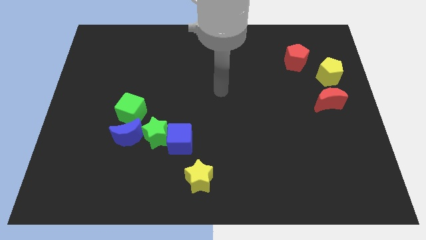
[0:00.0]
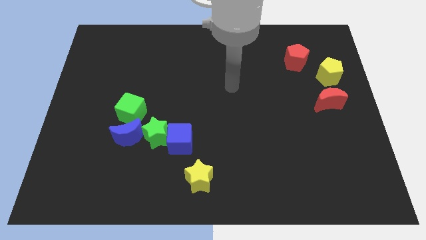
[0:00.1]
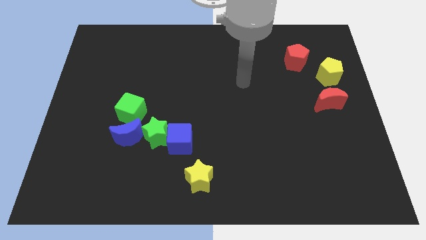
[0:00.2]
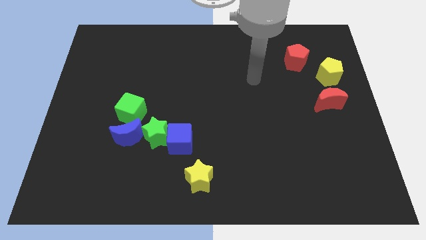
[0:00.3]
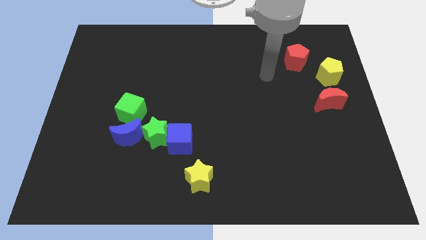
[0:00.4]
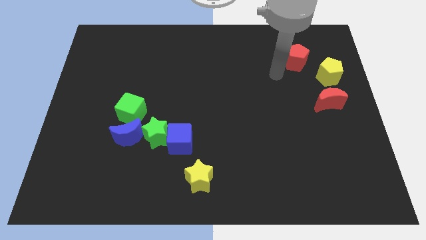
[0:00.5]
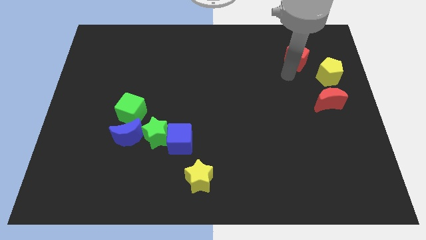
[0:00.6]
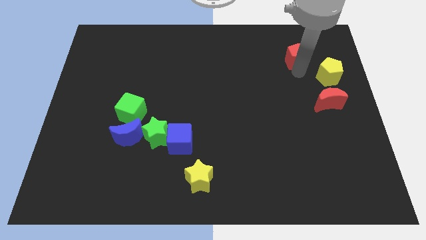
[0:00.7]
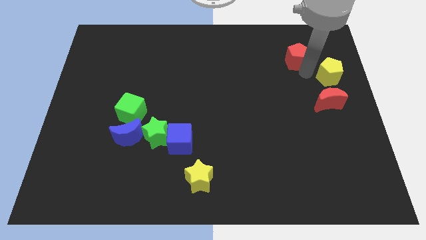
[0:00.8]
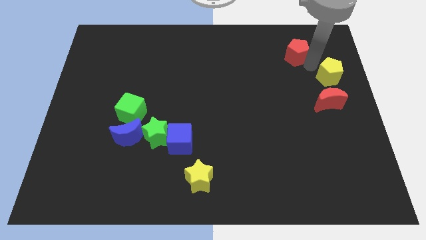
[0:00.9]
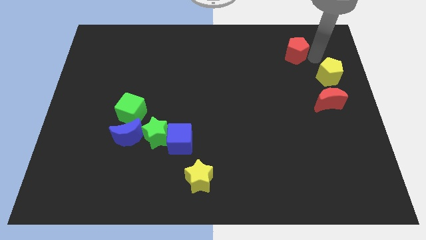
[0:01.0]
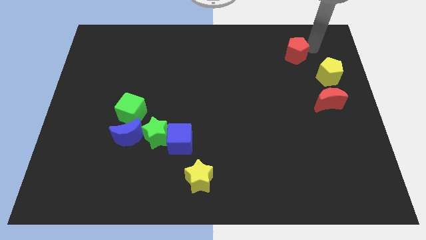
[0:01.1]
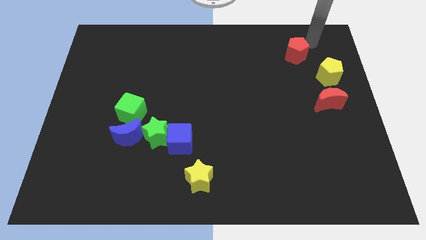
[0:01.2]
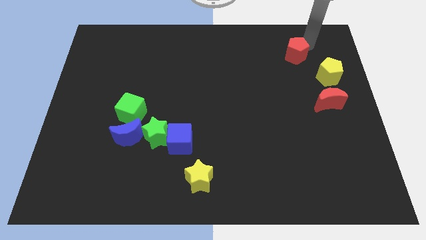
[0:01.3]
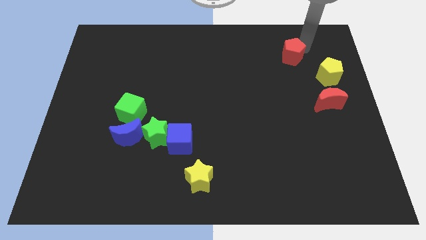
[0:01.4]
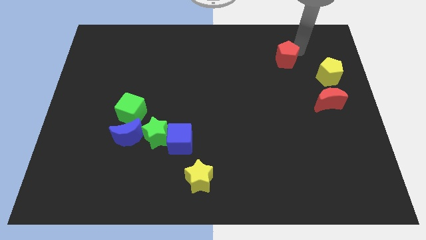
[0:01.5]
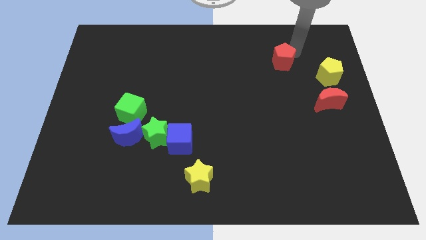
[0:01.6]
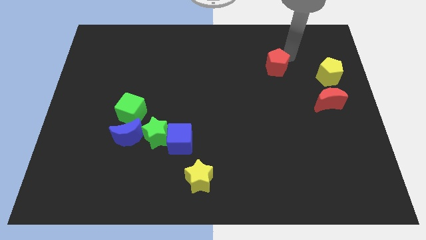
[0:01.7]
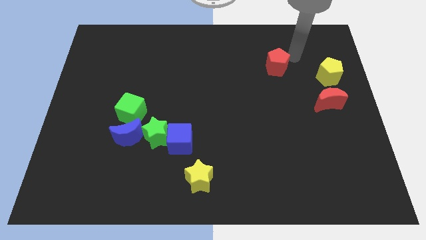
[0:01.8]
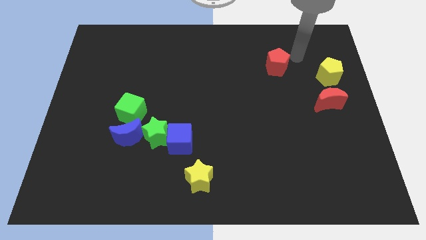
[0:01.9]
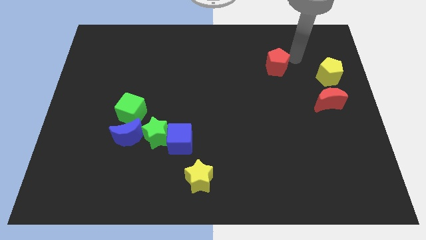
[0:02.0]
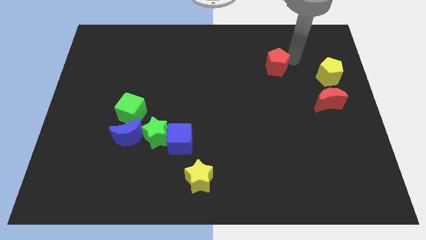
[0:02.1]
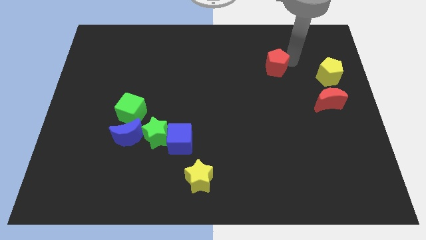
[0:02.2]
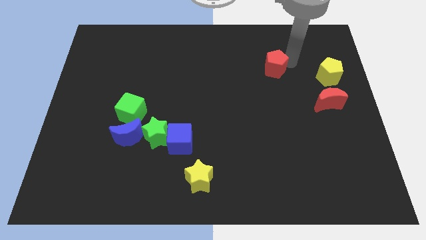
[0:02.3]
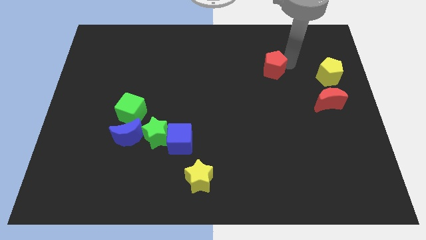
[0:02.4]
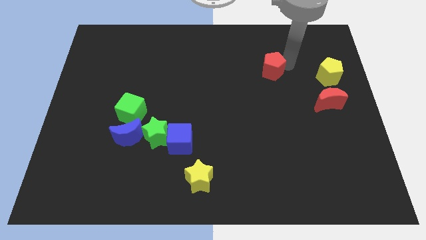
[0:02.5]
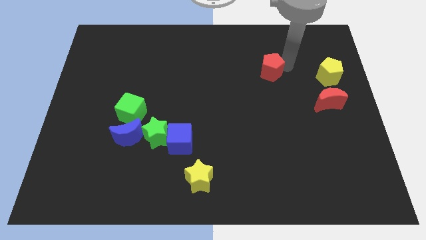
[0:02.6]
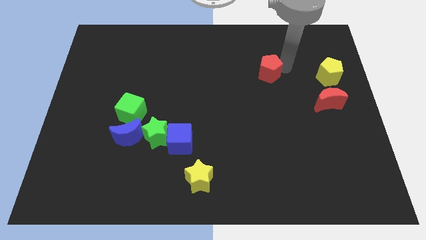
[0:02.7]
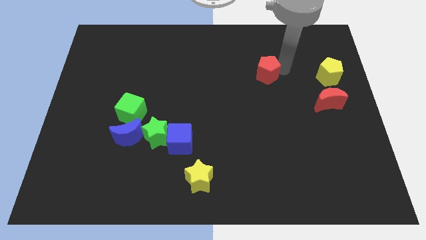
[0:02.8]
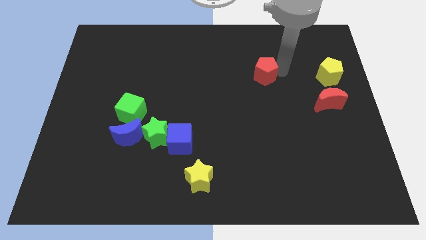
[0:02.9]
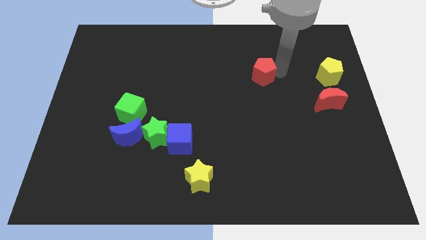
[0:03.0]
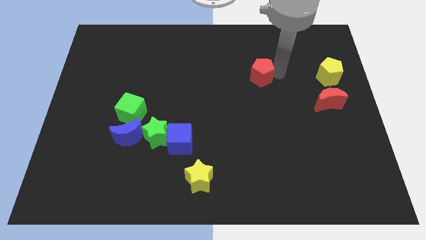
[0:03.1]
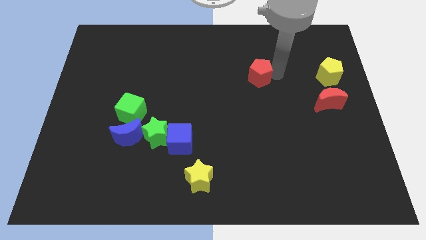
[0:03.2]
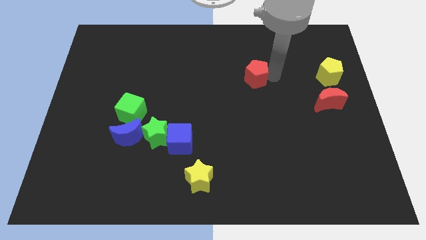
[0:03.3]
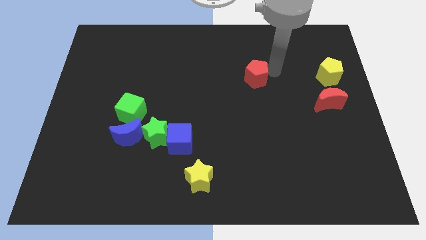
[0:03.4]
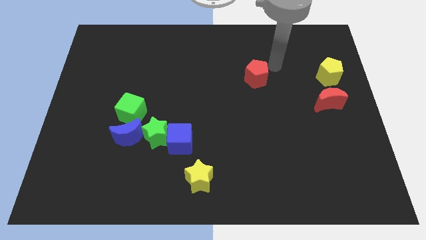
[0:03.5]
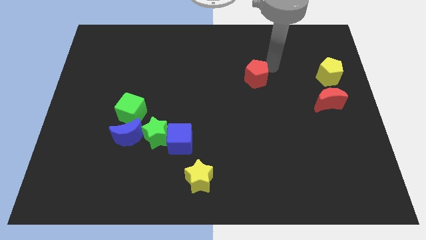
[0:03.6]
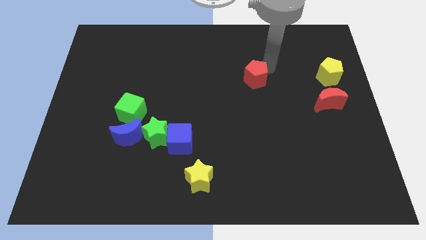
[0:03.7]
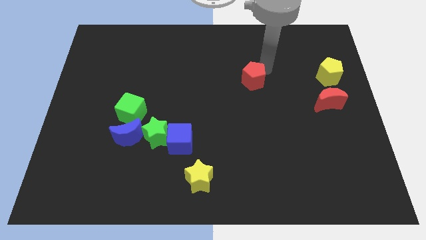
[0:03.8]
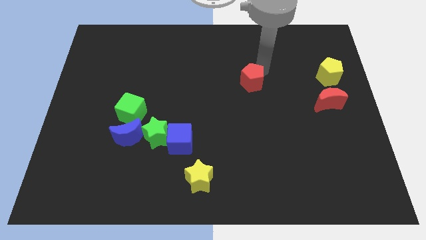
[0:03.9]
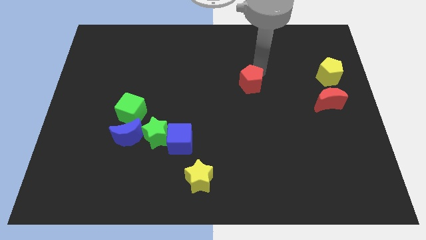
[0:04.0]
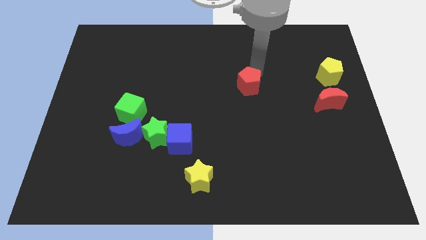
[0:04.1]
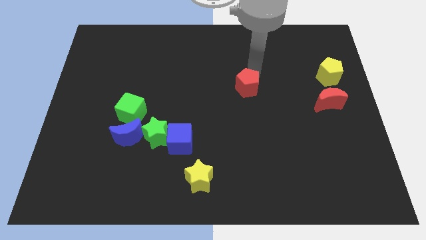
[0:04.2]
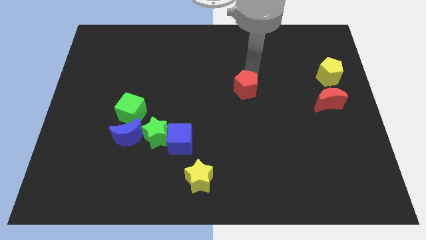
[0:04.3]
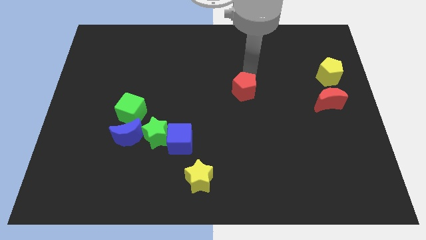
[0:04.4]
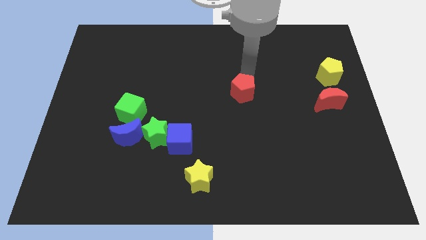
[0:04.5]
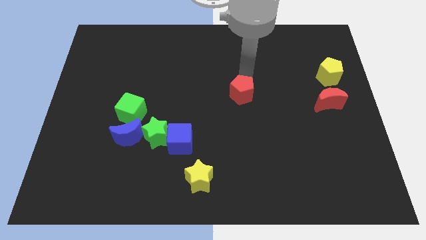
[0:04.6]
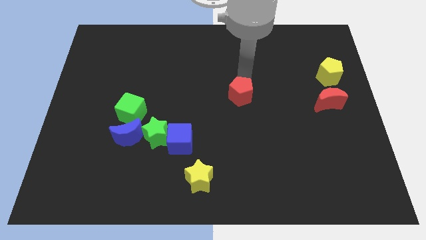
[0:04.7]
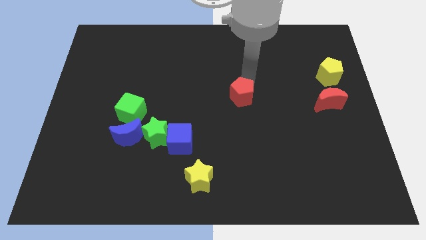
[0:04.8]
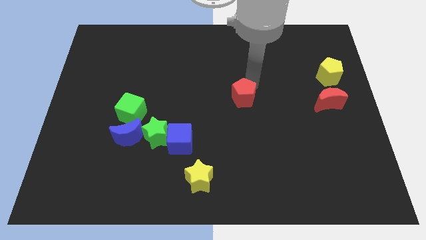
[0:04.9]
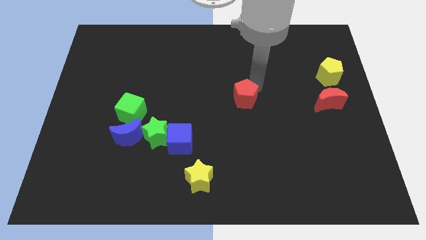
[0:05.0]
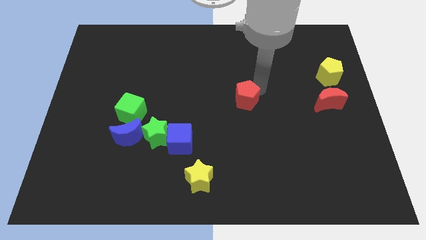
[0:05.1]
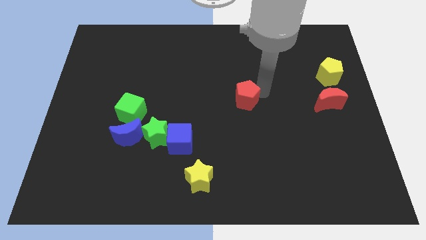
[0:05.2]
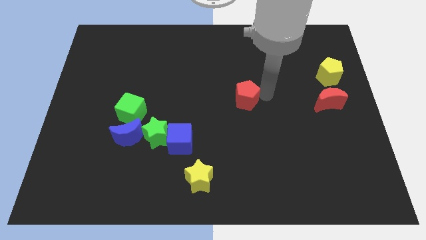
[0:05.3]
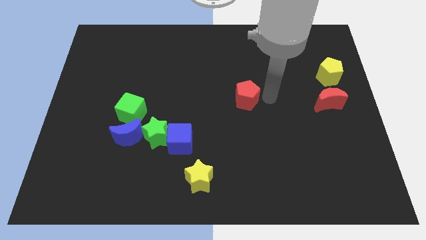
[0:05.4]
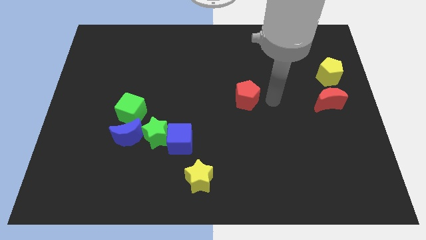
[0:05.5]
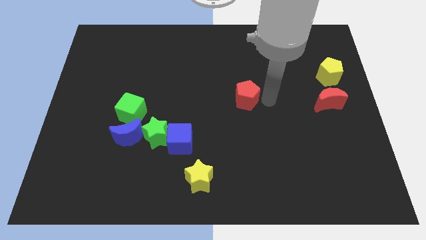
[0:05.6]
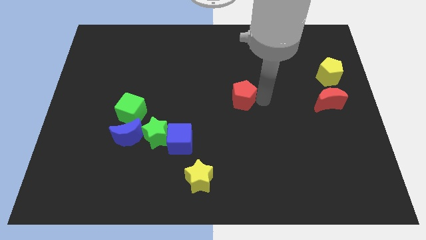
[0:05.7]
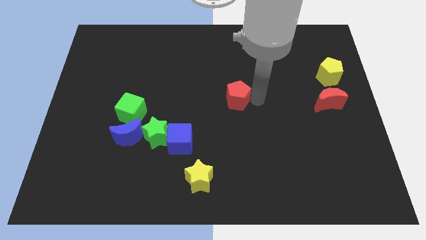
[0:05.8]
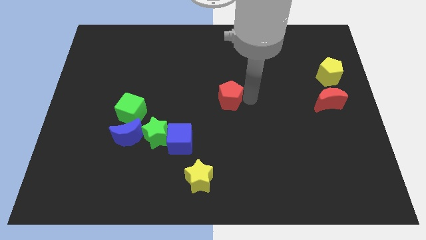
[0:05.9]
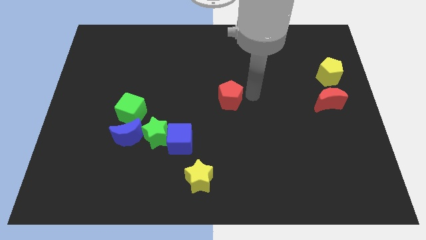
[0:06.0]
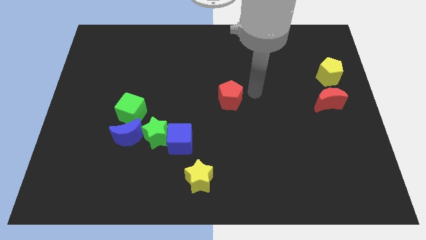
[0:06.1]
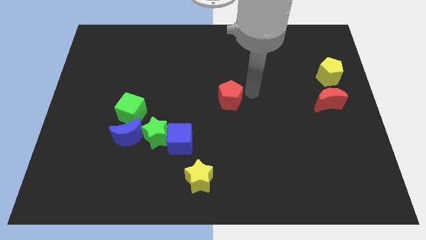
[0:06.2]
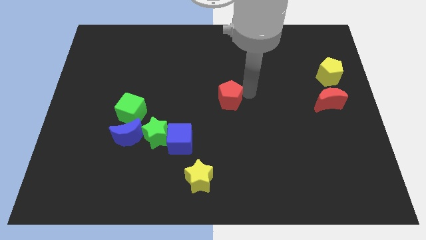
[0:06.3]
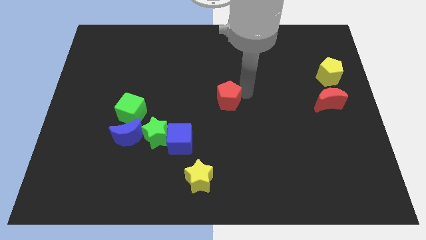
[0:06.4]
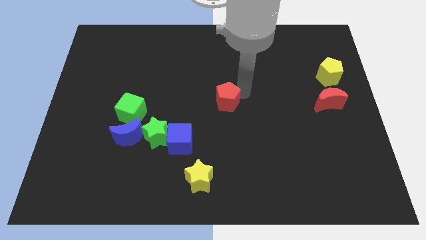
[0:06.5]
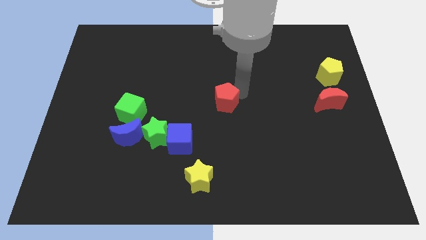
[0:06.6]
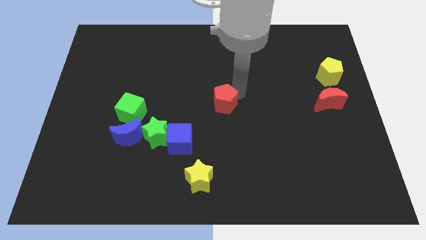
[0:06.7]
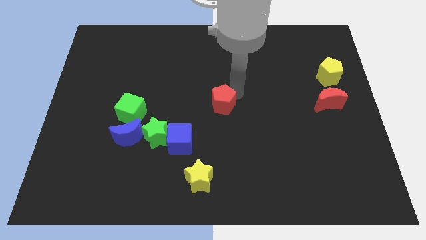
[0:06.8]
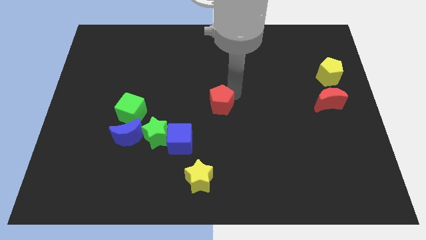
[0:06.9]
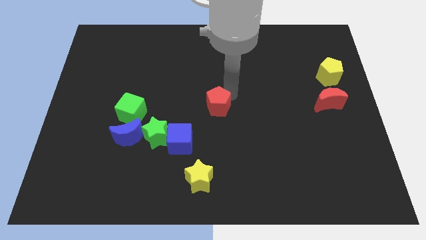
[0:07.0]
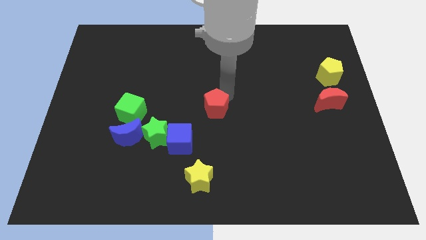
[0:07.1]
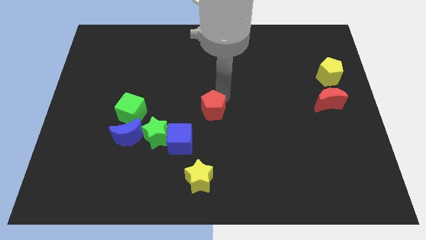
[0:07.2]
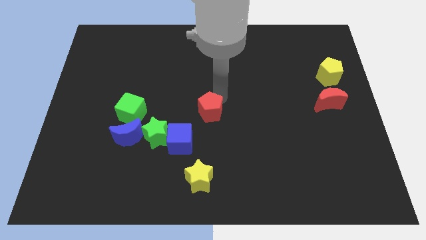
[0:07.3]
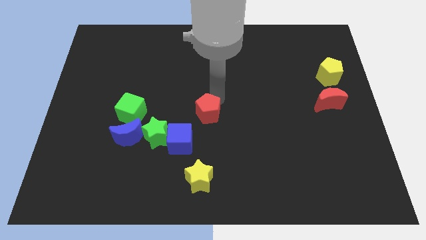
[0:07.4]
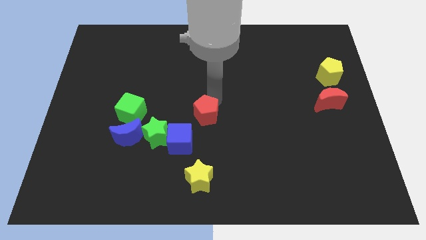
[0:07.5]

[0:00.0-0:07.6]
slide the red pentagon diagonally up and to the right of the green star

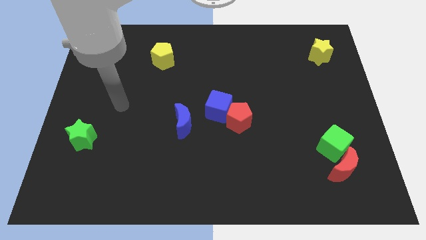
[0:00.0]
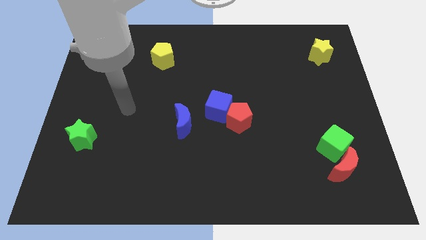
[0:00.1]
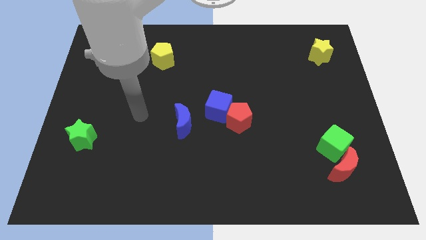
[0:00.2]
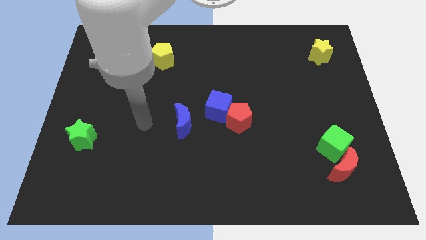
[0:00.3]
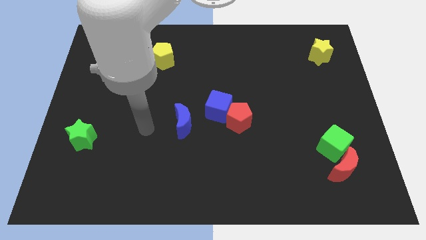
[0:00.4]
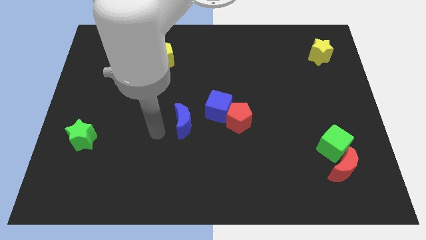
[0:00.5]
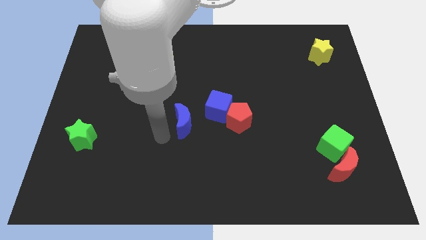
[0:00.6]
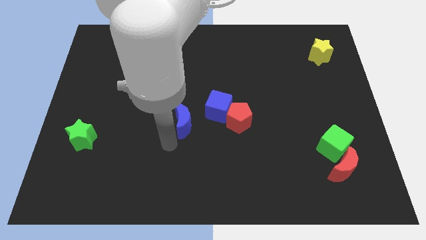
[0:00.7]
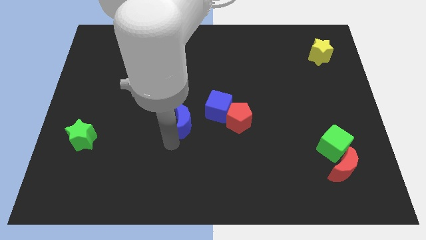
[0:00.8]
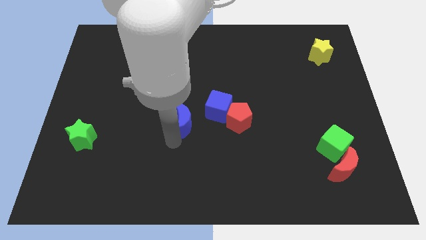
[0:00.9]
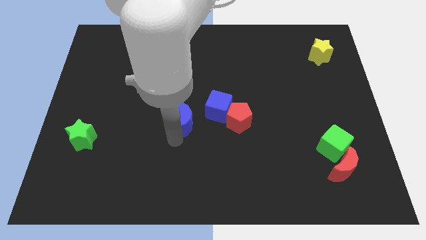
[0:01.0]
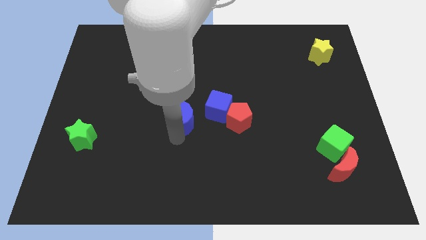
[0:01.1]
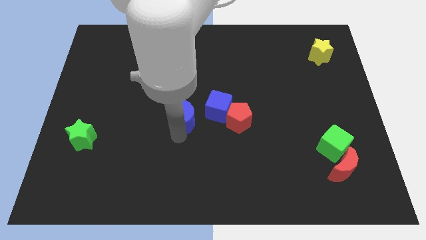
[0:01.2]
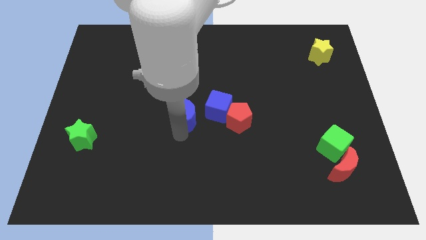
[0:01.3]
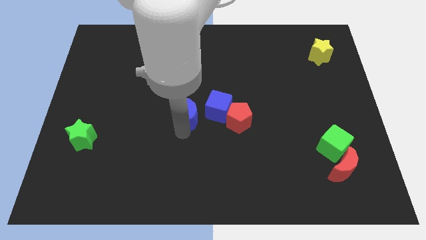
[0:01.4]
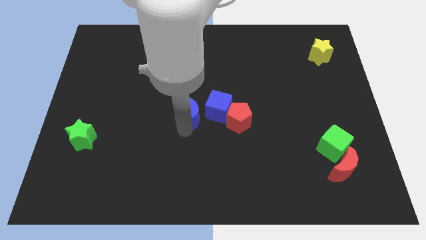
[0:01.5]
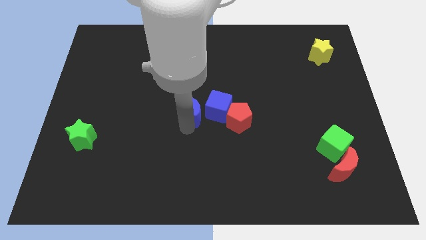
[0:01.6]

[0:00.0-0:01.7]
put the blue moon to the top left side of the blue cube
